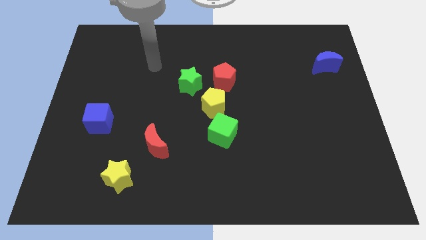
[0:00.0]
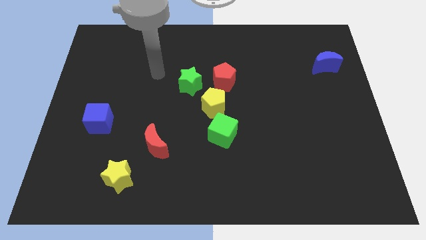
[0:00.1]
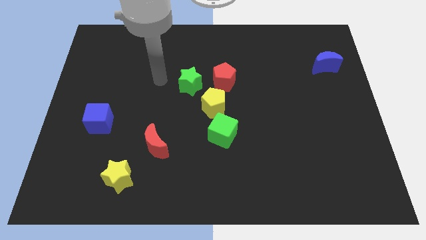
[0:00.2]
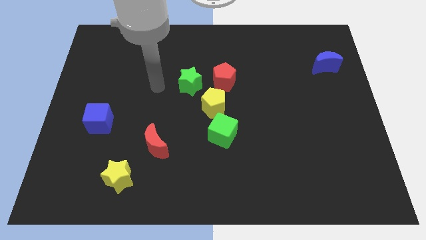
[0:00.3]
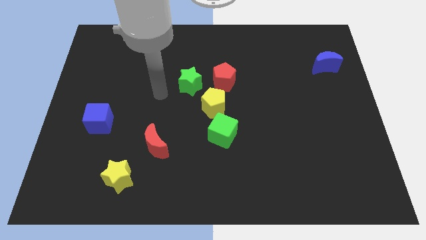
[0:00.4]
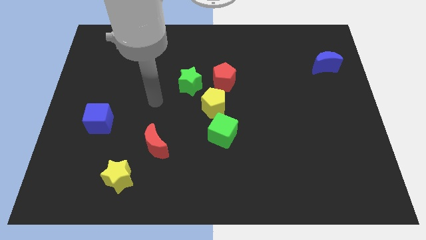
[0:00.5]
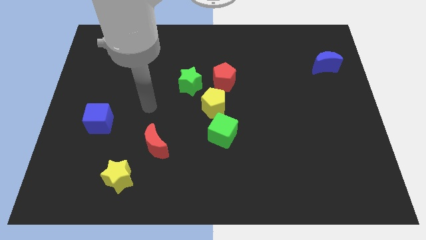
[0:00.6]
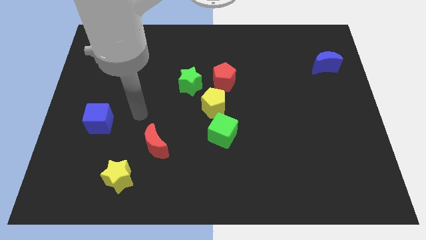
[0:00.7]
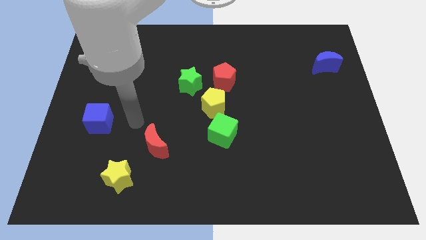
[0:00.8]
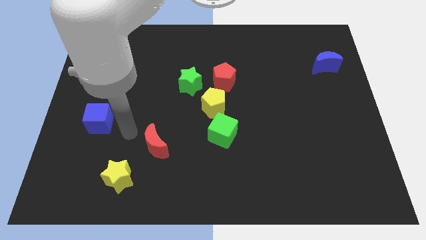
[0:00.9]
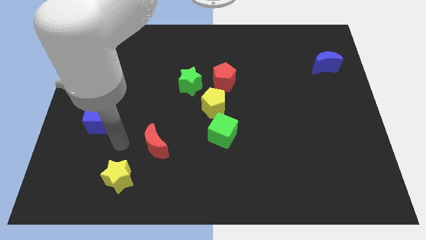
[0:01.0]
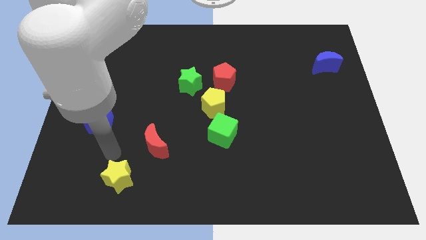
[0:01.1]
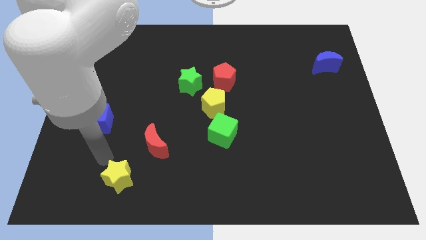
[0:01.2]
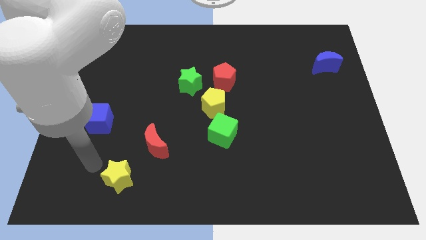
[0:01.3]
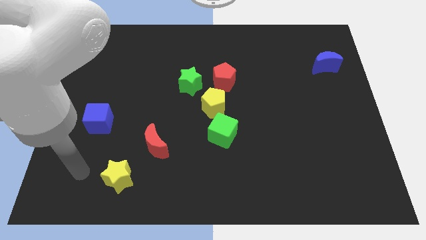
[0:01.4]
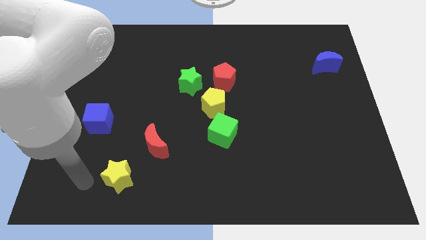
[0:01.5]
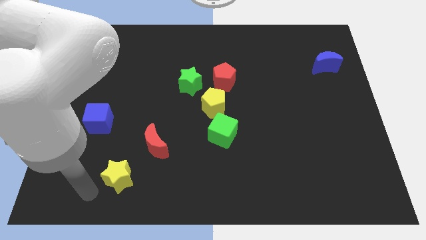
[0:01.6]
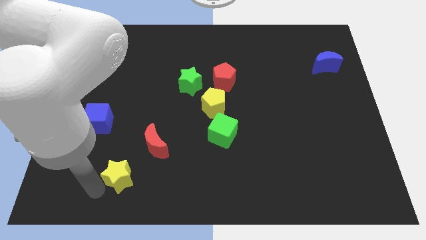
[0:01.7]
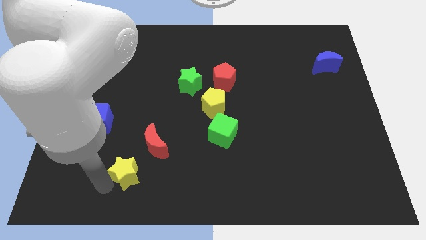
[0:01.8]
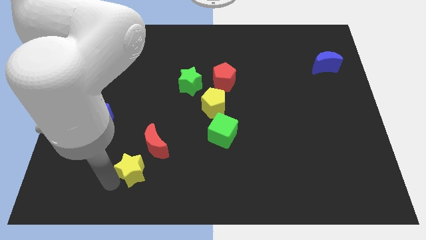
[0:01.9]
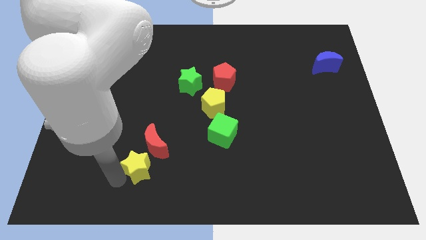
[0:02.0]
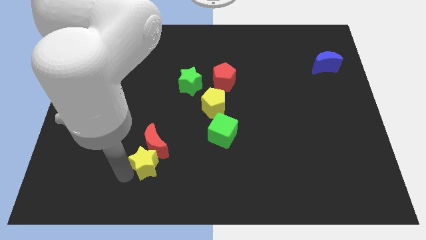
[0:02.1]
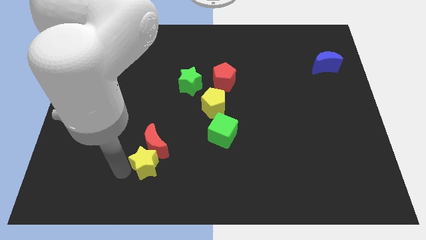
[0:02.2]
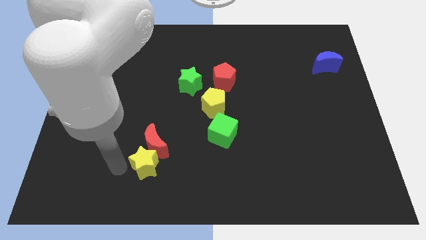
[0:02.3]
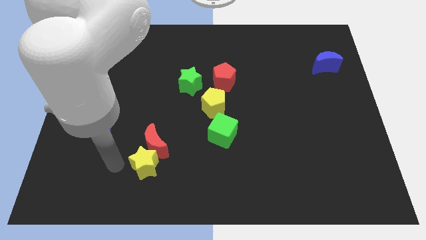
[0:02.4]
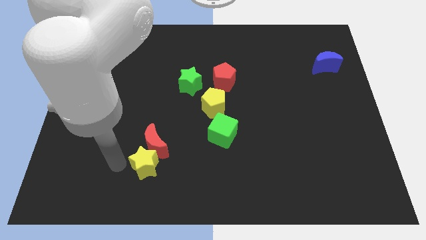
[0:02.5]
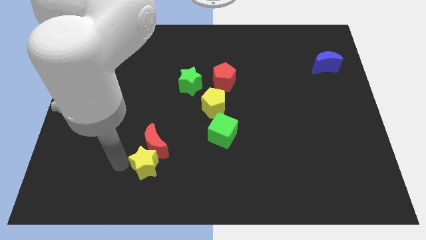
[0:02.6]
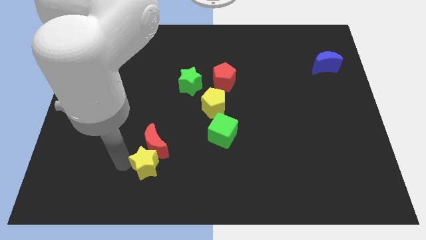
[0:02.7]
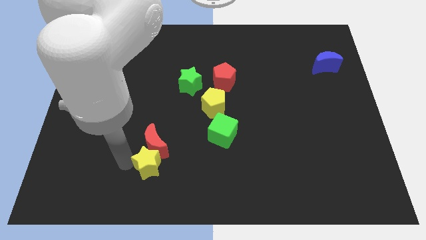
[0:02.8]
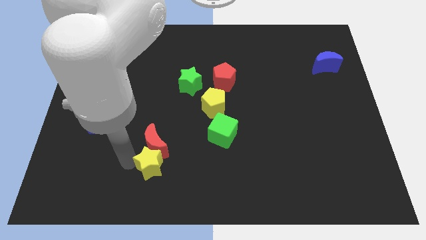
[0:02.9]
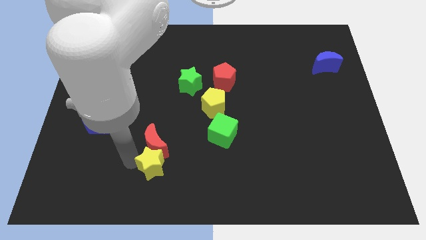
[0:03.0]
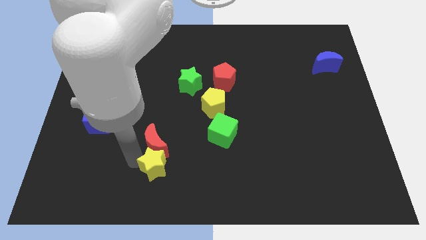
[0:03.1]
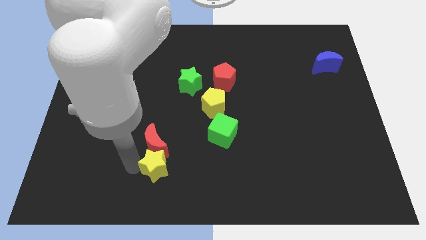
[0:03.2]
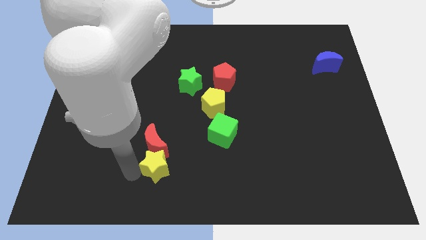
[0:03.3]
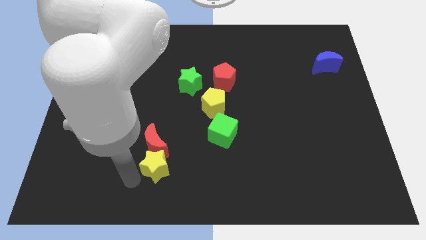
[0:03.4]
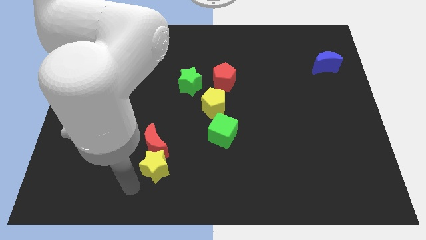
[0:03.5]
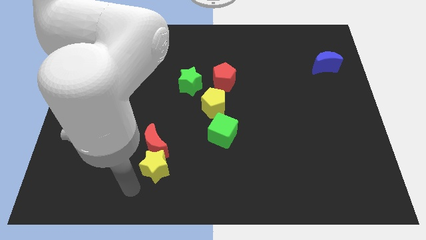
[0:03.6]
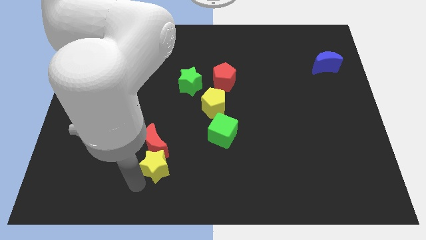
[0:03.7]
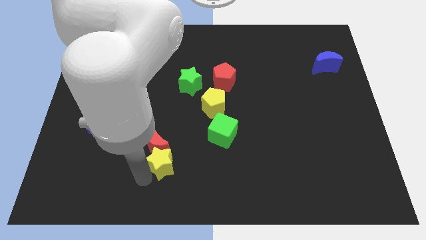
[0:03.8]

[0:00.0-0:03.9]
push the yellow star a bit diagonally up and right

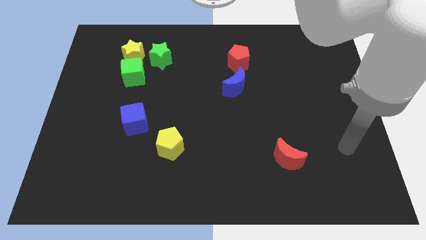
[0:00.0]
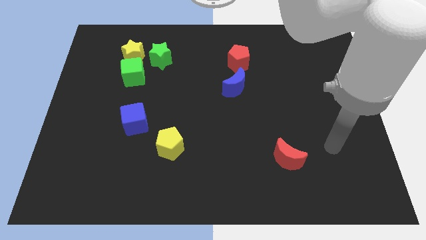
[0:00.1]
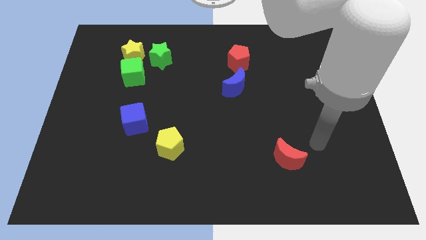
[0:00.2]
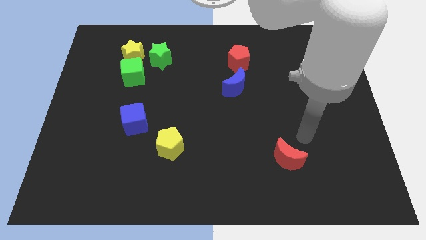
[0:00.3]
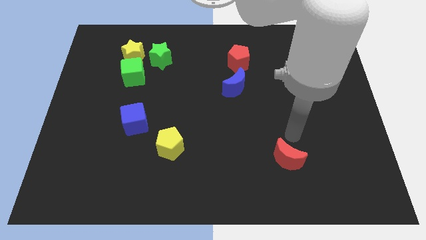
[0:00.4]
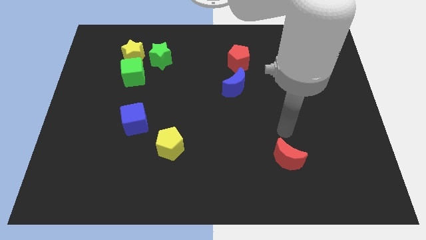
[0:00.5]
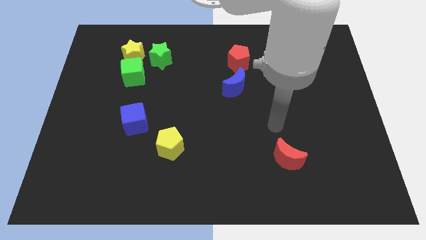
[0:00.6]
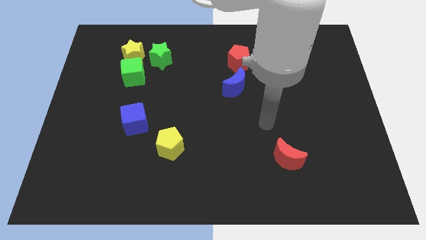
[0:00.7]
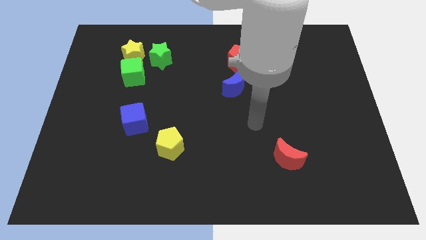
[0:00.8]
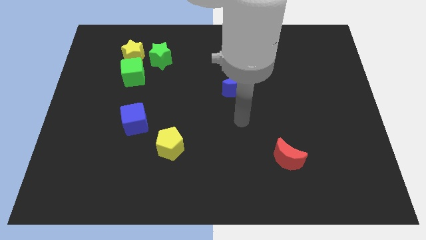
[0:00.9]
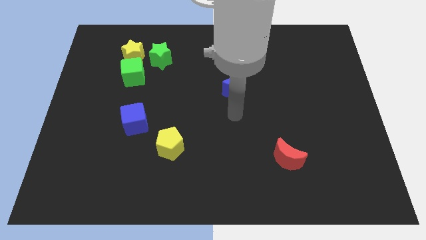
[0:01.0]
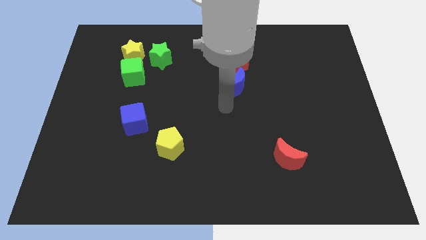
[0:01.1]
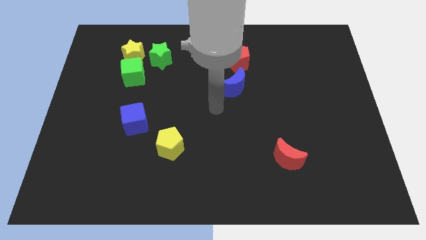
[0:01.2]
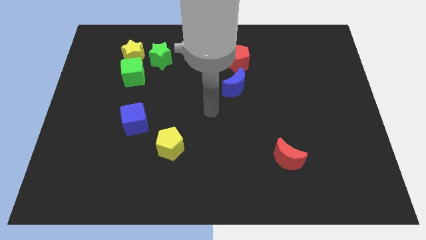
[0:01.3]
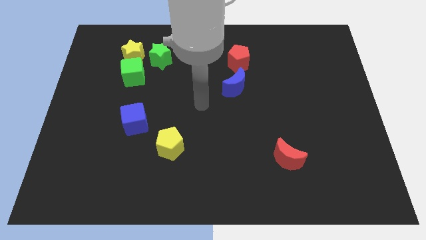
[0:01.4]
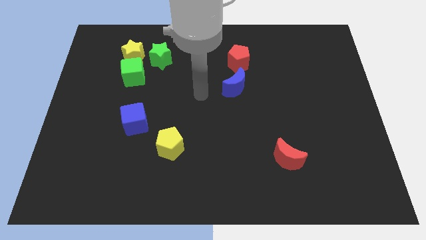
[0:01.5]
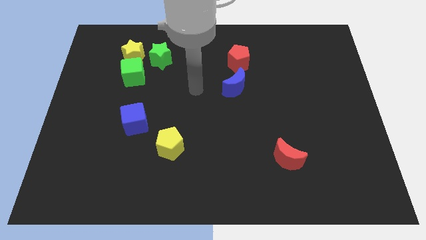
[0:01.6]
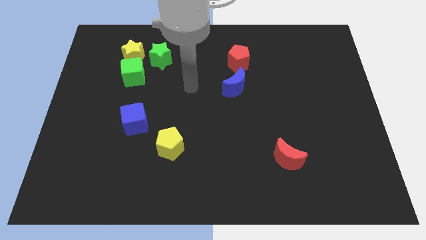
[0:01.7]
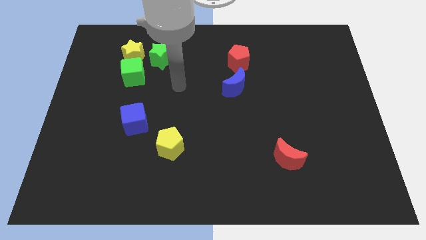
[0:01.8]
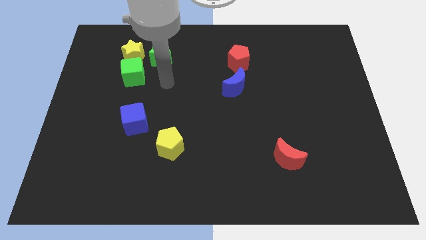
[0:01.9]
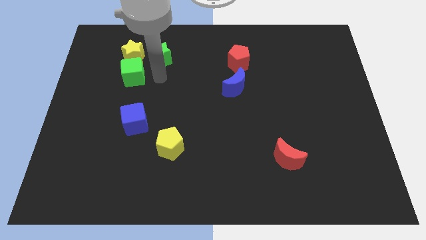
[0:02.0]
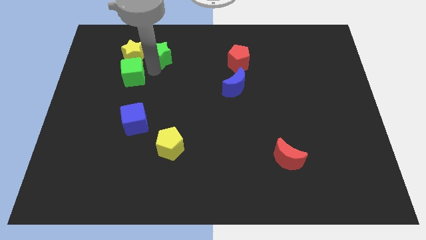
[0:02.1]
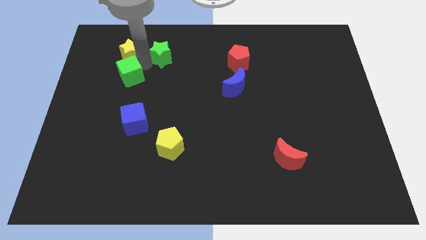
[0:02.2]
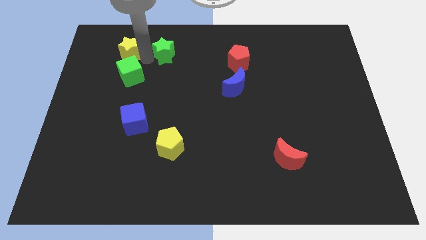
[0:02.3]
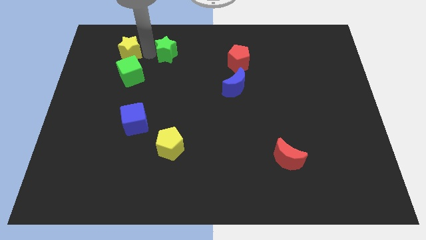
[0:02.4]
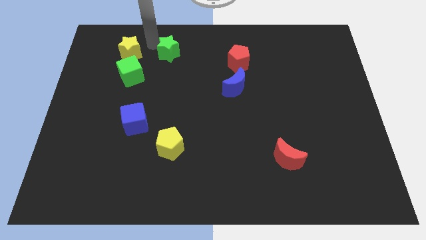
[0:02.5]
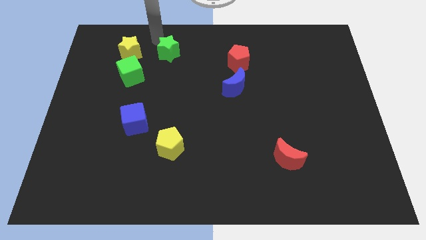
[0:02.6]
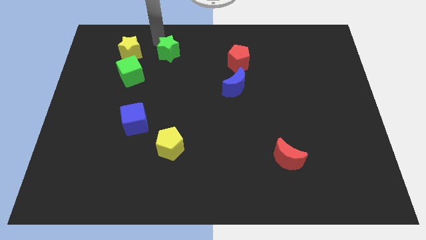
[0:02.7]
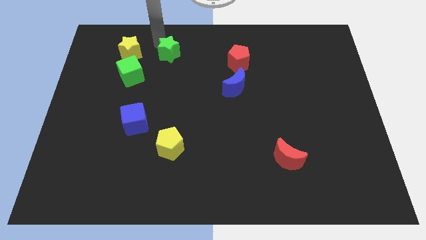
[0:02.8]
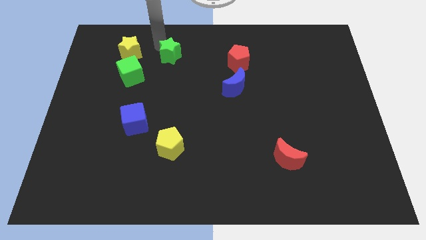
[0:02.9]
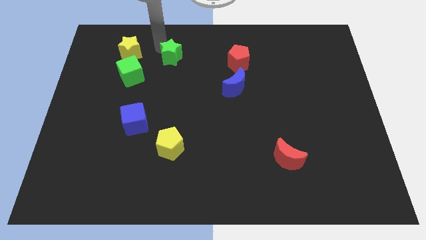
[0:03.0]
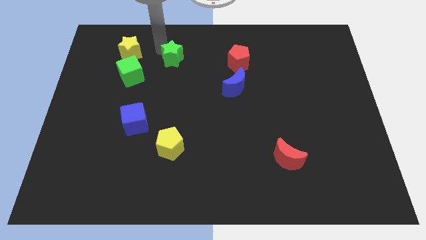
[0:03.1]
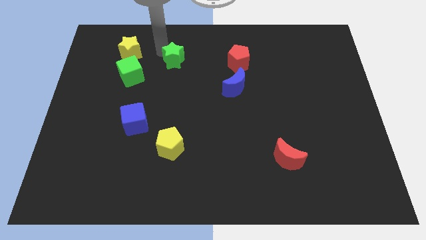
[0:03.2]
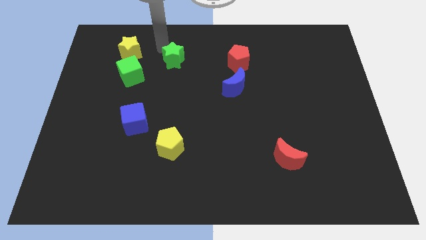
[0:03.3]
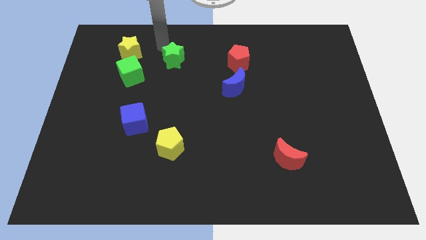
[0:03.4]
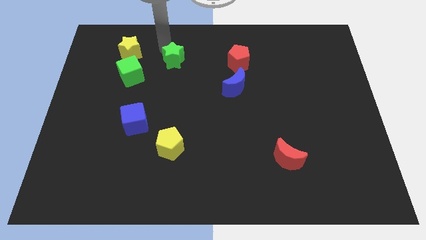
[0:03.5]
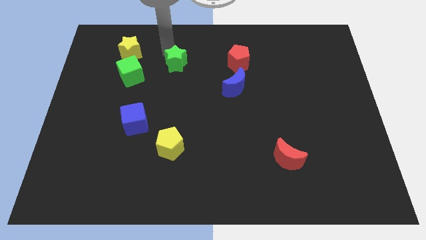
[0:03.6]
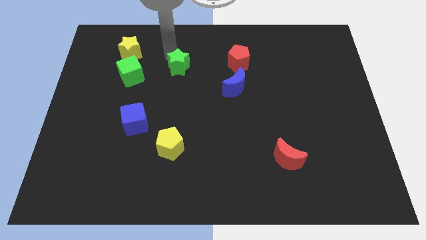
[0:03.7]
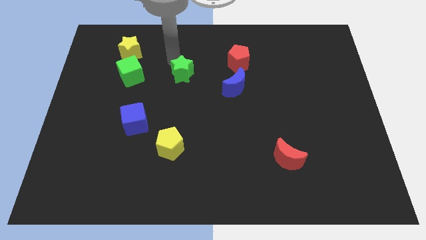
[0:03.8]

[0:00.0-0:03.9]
move the green star a little down and then right
